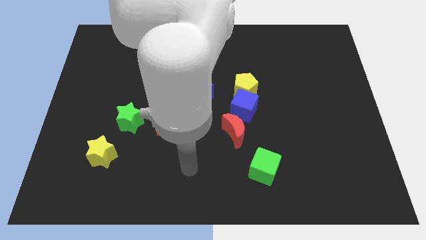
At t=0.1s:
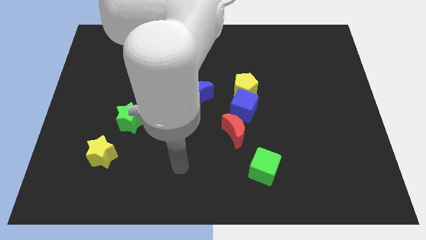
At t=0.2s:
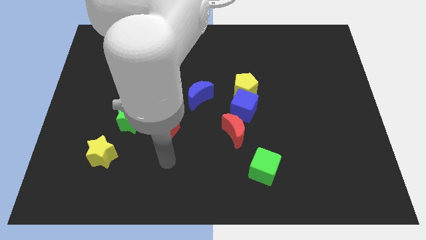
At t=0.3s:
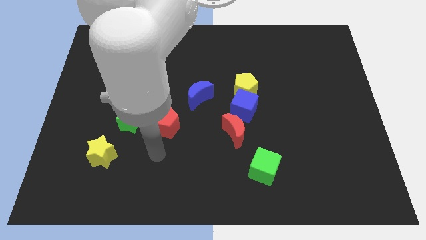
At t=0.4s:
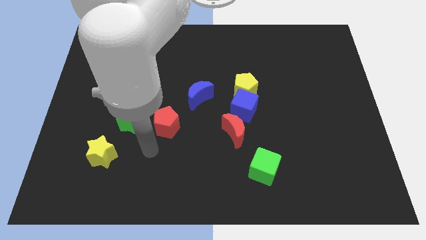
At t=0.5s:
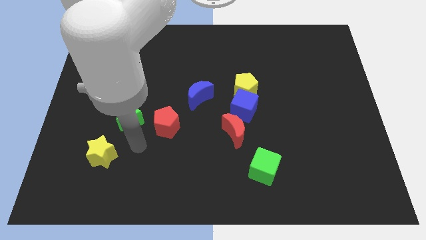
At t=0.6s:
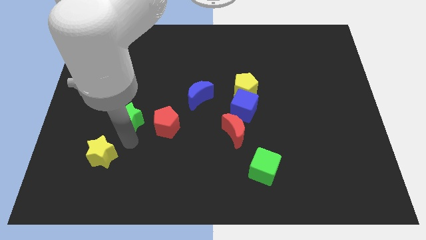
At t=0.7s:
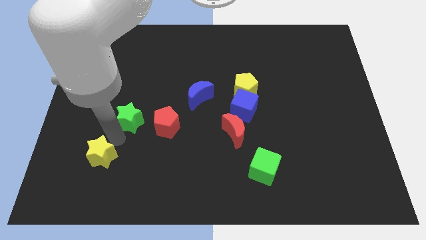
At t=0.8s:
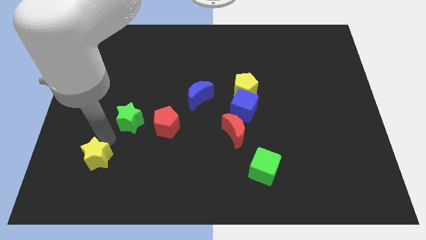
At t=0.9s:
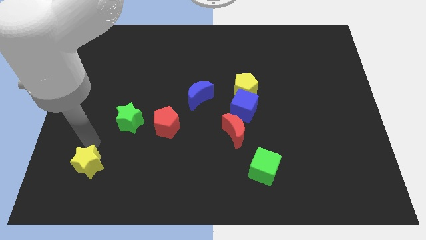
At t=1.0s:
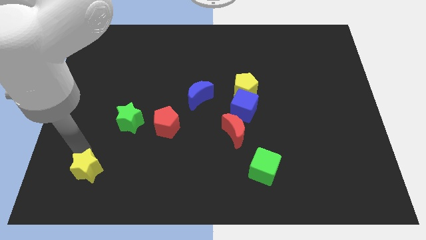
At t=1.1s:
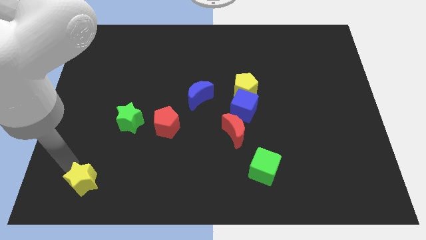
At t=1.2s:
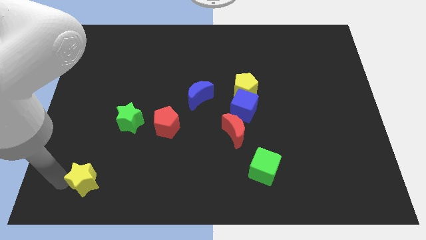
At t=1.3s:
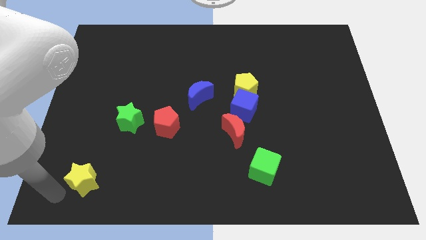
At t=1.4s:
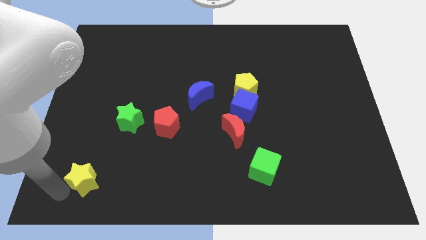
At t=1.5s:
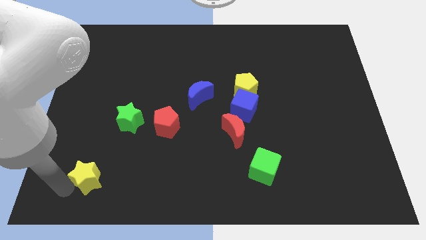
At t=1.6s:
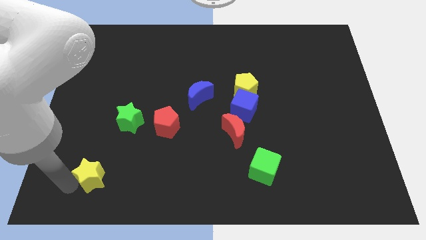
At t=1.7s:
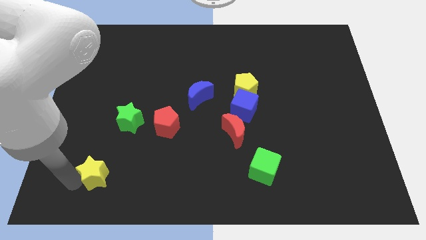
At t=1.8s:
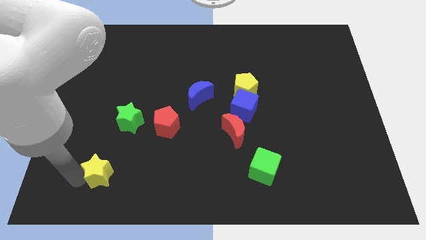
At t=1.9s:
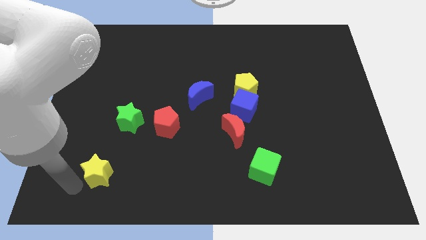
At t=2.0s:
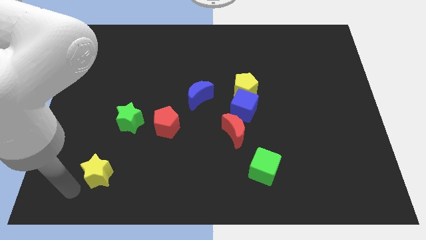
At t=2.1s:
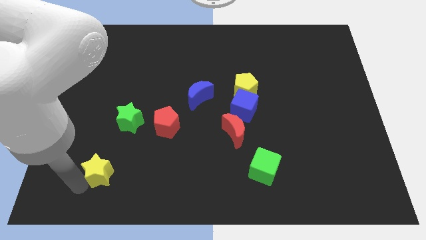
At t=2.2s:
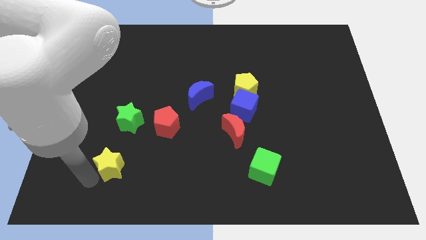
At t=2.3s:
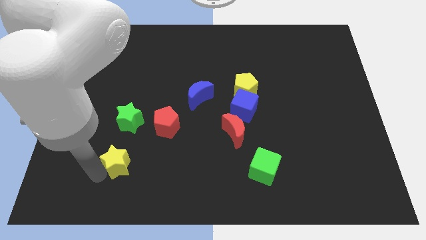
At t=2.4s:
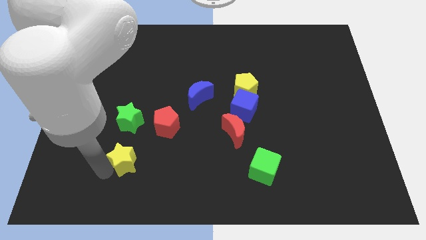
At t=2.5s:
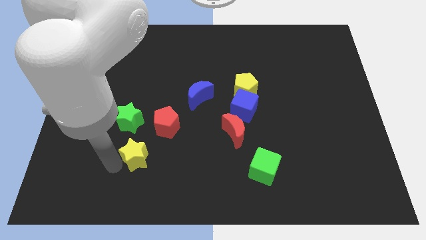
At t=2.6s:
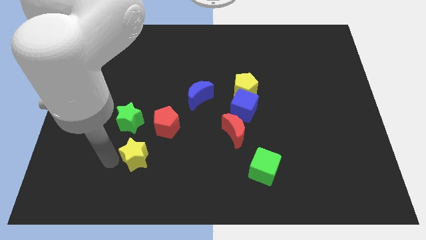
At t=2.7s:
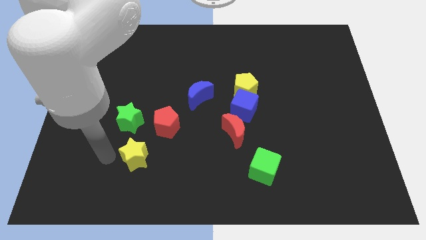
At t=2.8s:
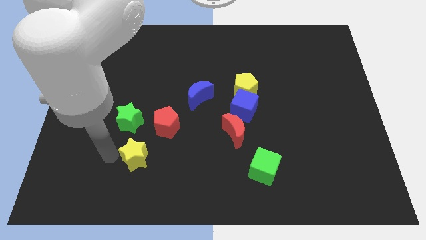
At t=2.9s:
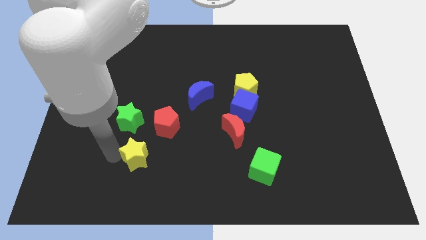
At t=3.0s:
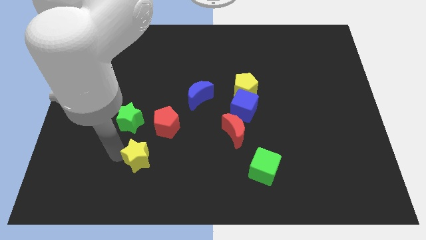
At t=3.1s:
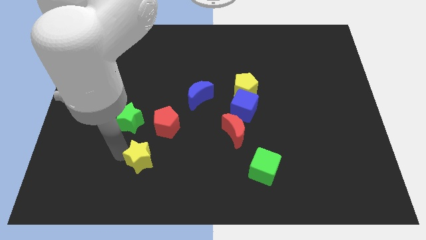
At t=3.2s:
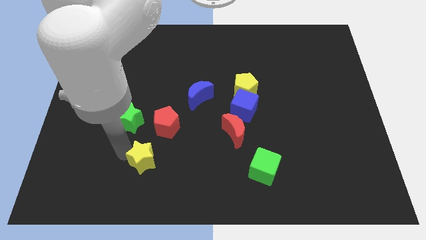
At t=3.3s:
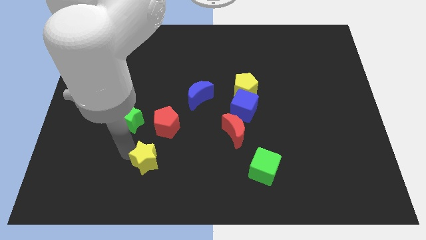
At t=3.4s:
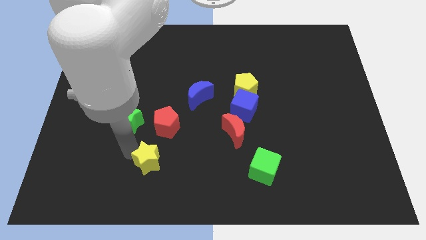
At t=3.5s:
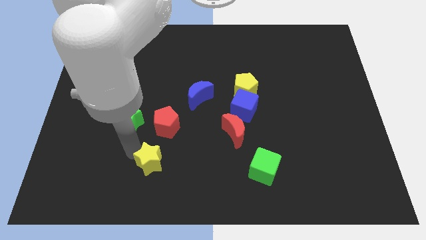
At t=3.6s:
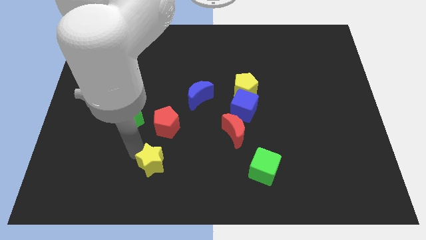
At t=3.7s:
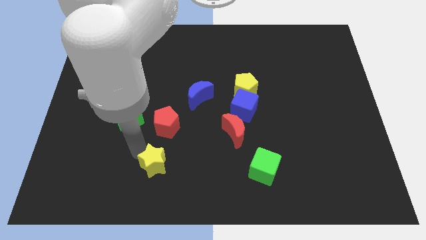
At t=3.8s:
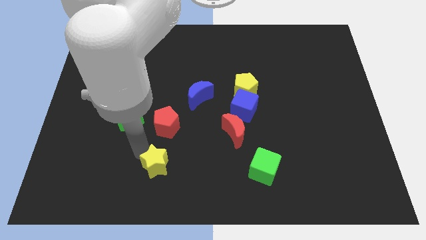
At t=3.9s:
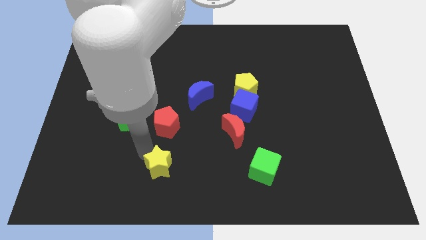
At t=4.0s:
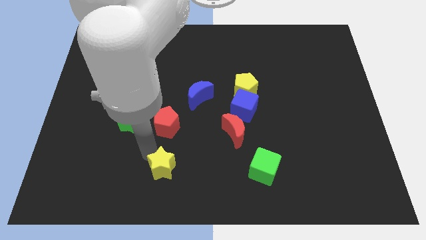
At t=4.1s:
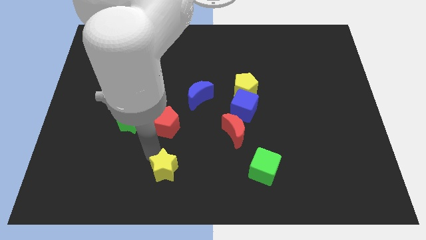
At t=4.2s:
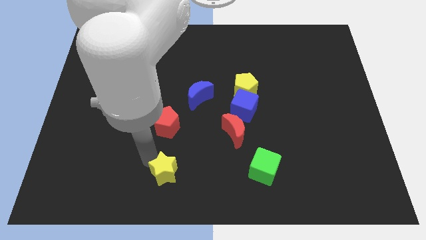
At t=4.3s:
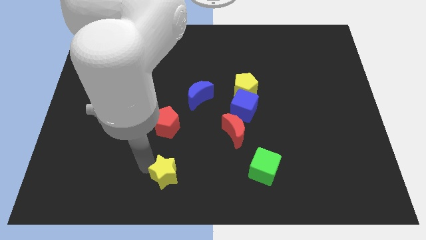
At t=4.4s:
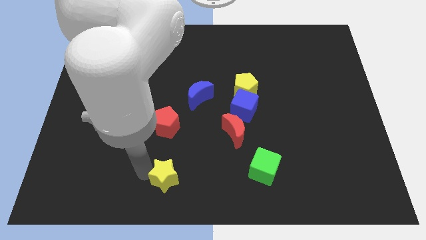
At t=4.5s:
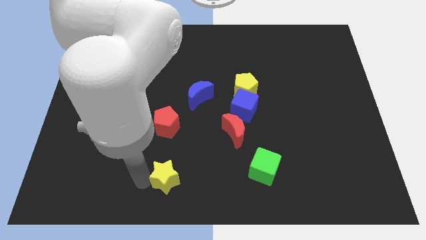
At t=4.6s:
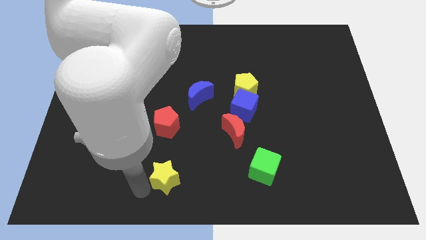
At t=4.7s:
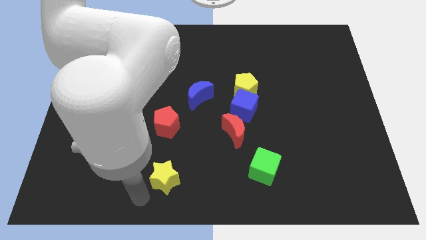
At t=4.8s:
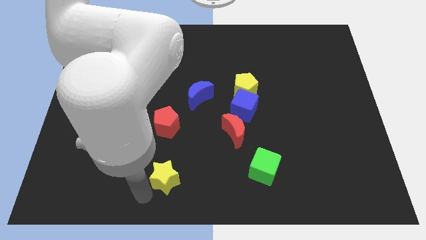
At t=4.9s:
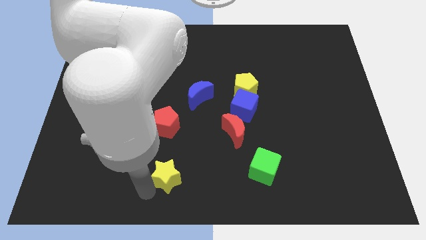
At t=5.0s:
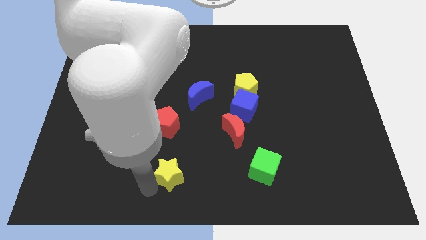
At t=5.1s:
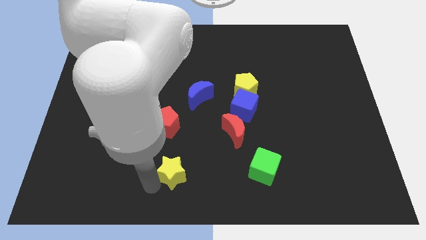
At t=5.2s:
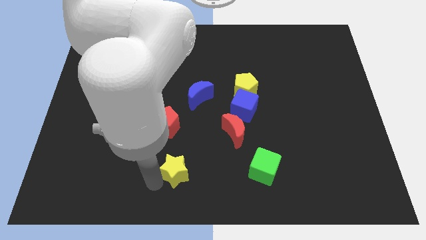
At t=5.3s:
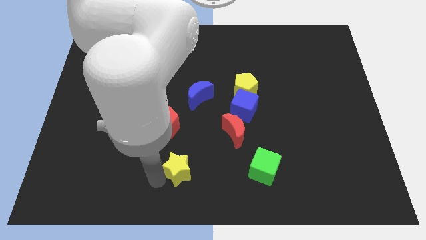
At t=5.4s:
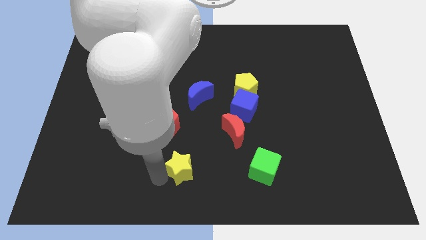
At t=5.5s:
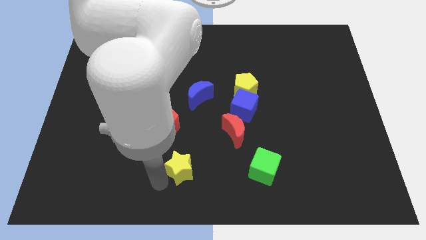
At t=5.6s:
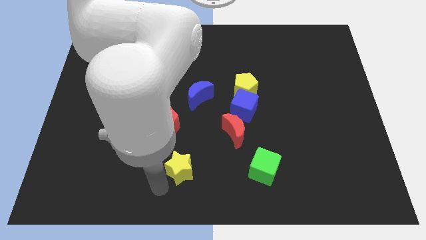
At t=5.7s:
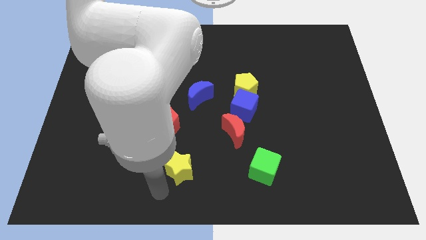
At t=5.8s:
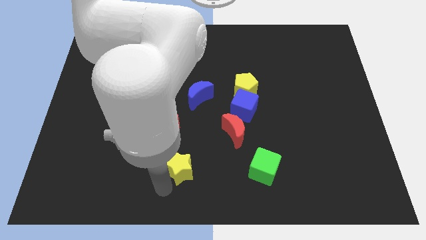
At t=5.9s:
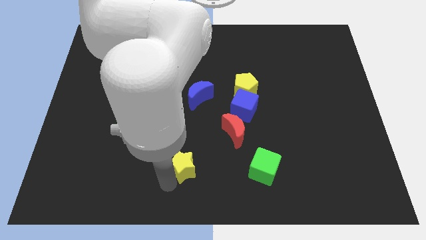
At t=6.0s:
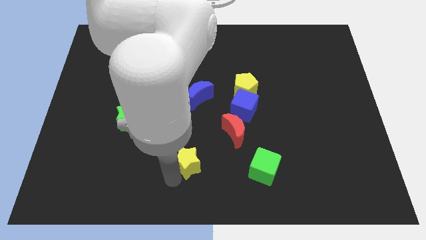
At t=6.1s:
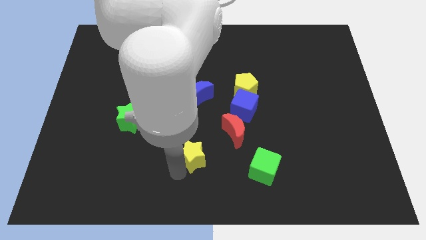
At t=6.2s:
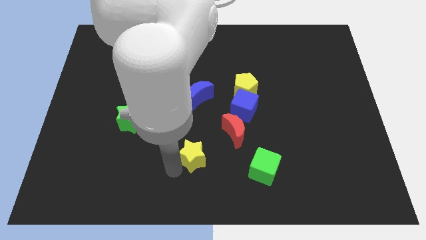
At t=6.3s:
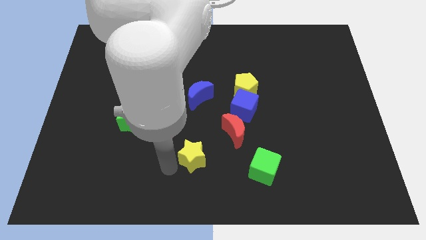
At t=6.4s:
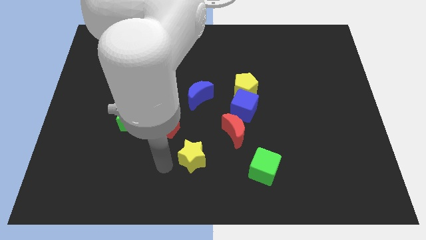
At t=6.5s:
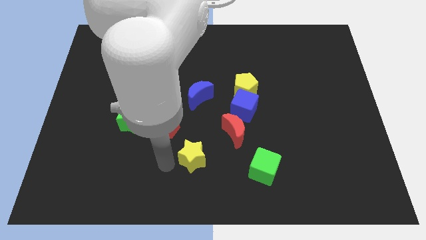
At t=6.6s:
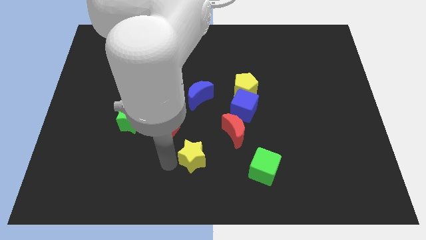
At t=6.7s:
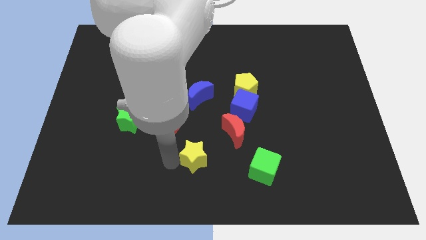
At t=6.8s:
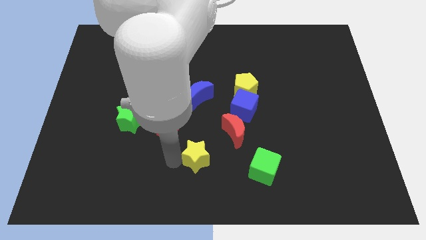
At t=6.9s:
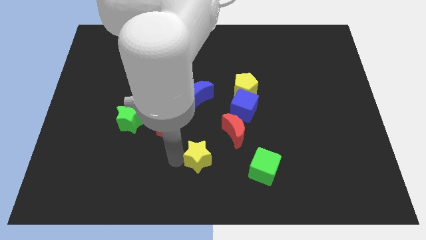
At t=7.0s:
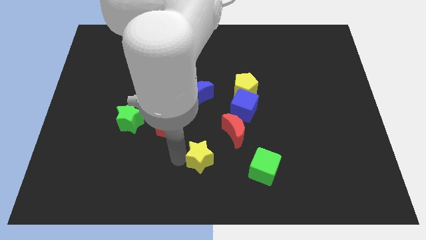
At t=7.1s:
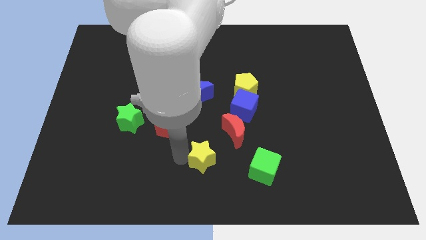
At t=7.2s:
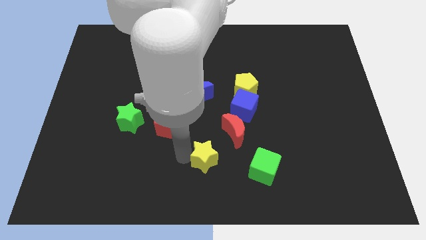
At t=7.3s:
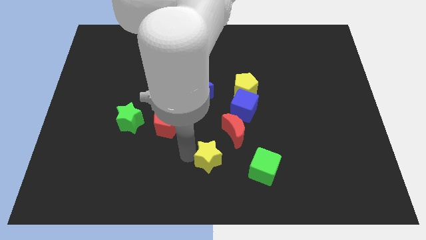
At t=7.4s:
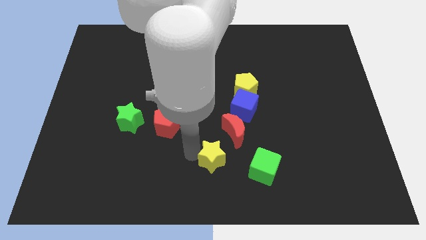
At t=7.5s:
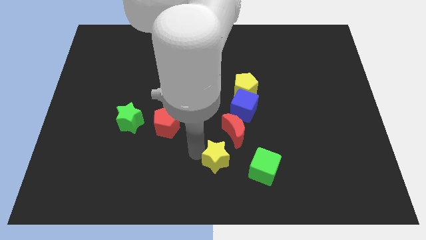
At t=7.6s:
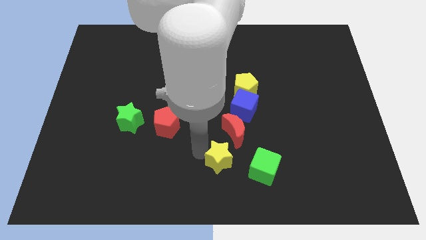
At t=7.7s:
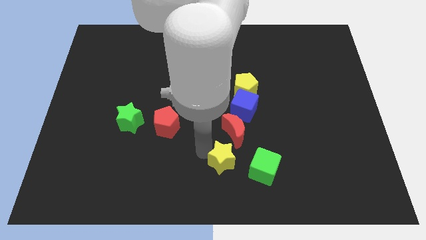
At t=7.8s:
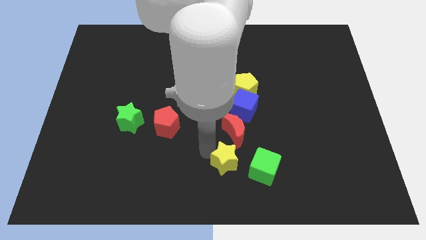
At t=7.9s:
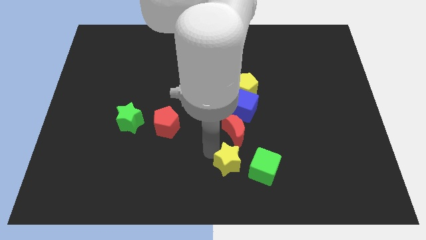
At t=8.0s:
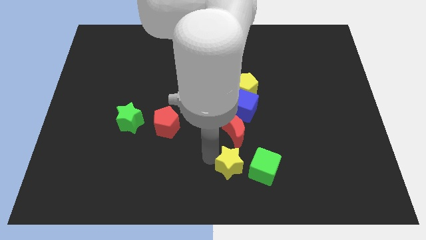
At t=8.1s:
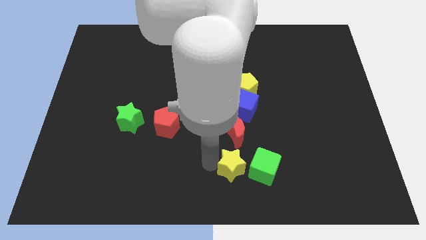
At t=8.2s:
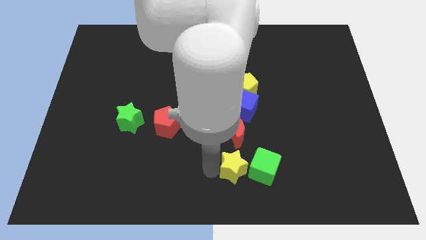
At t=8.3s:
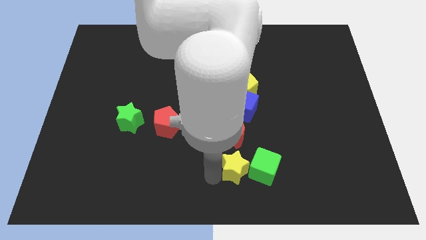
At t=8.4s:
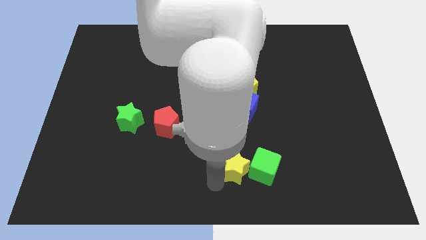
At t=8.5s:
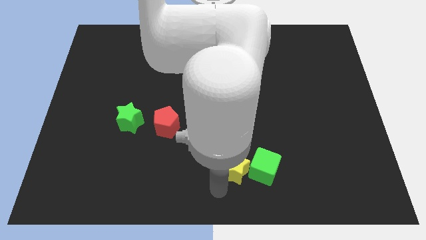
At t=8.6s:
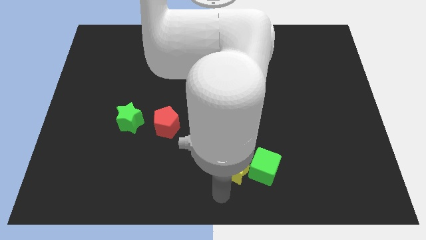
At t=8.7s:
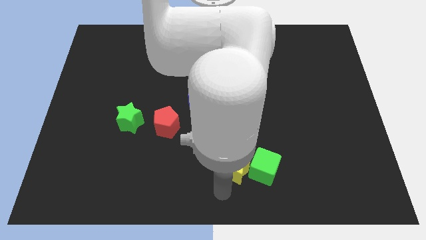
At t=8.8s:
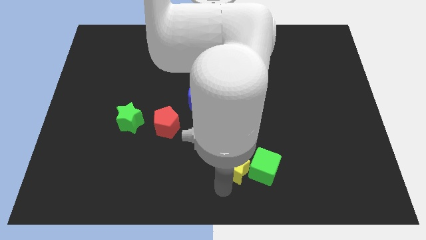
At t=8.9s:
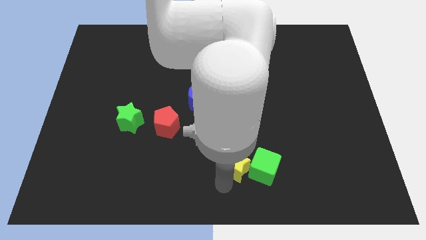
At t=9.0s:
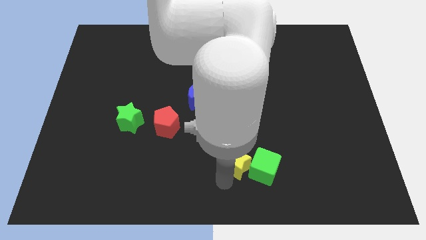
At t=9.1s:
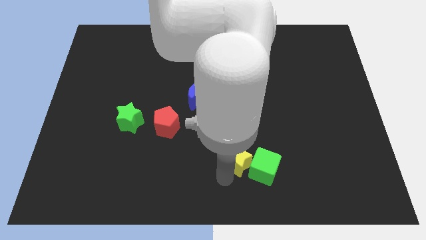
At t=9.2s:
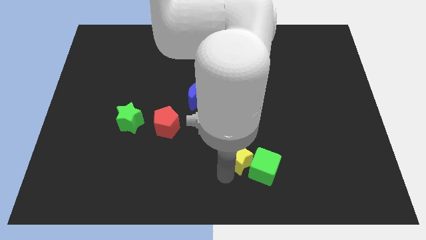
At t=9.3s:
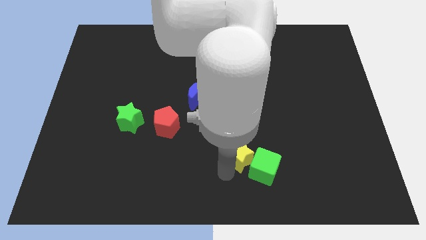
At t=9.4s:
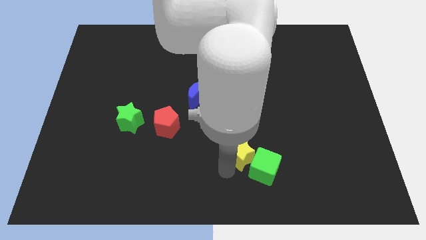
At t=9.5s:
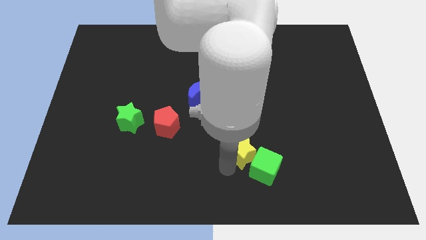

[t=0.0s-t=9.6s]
move the yellow star above the green cube
